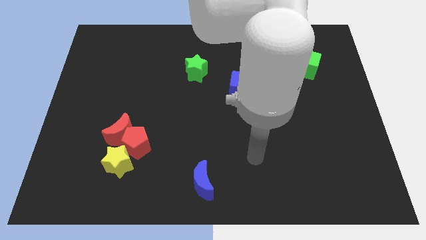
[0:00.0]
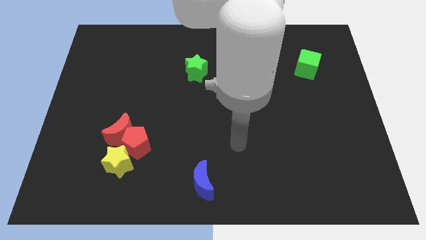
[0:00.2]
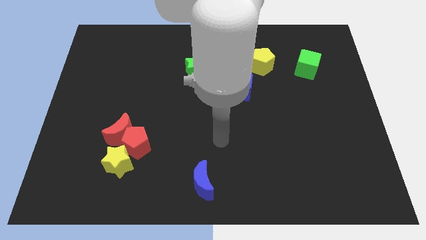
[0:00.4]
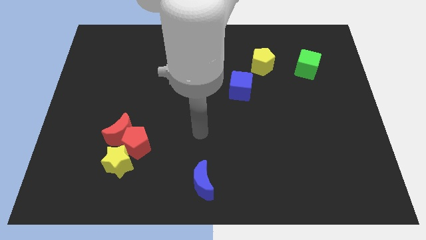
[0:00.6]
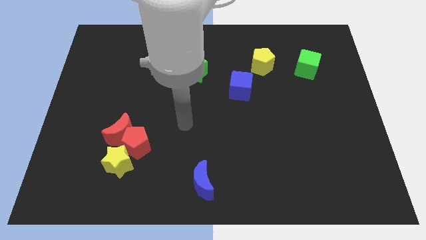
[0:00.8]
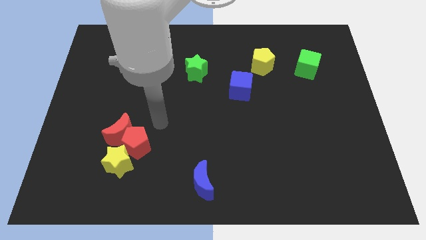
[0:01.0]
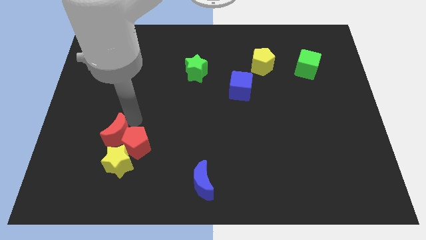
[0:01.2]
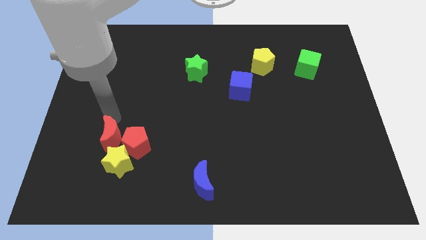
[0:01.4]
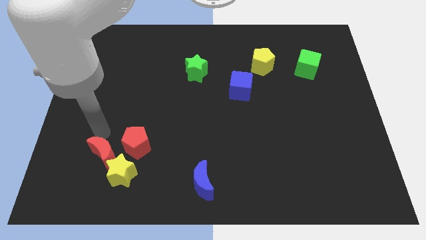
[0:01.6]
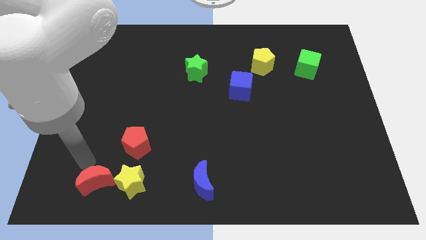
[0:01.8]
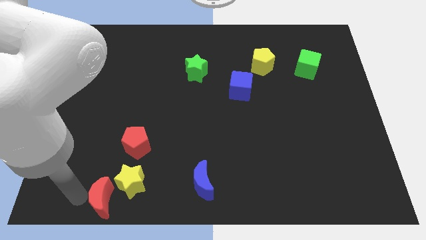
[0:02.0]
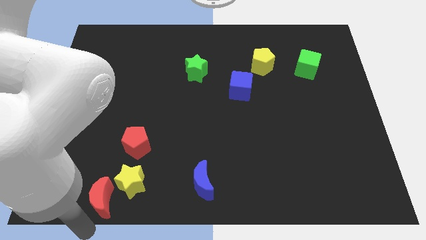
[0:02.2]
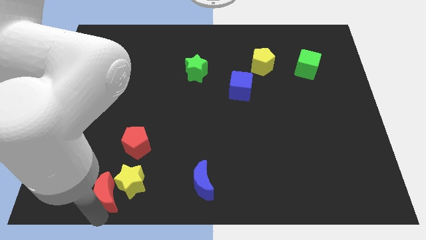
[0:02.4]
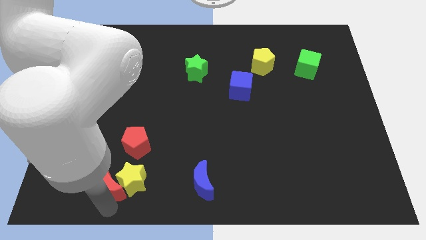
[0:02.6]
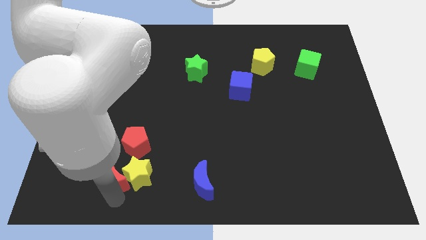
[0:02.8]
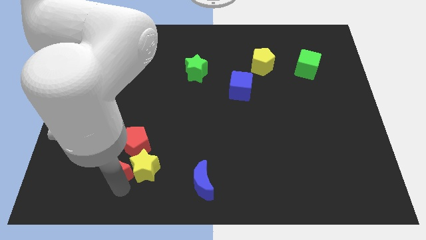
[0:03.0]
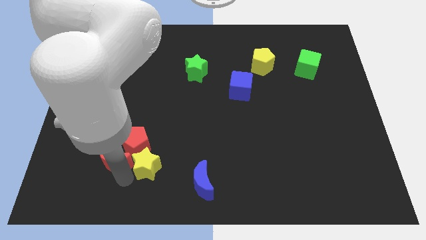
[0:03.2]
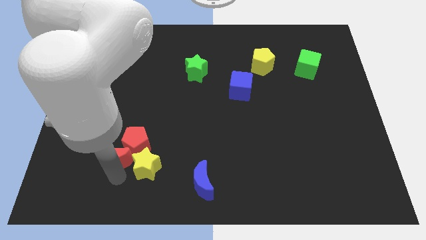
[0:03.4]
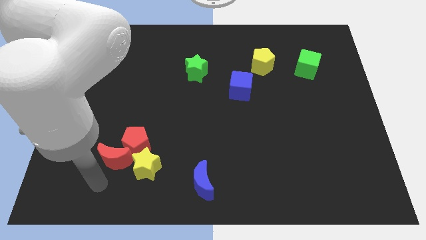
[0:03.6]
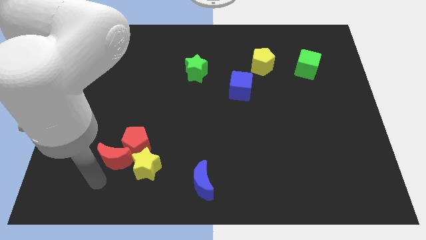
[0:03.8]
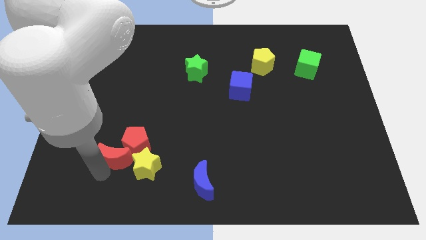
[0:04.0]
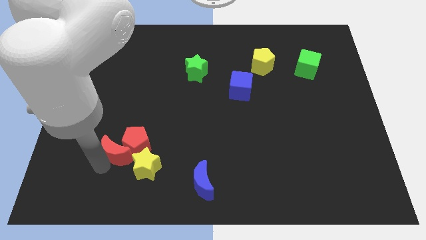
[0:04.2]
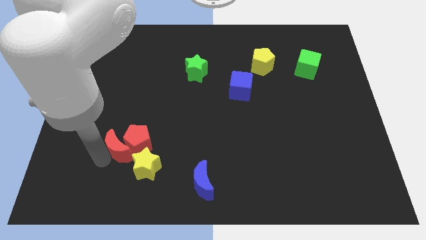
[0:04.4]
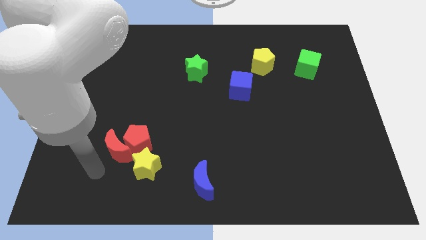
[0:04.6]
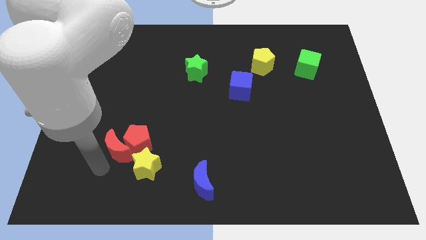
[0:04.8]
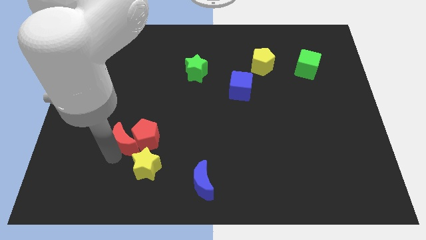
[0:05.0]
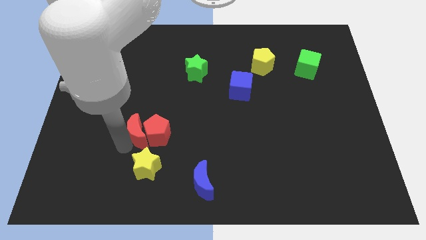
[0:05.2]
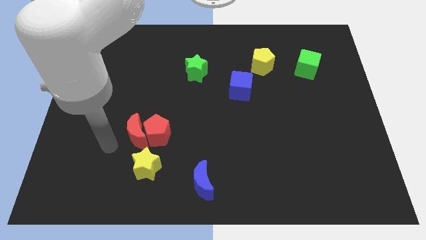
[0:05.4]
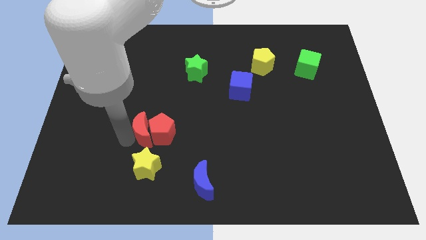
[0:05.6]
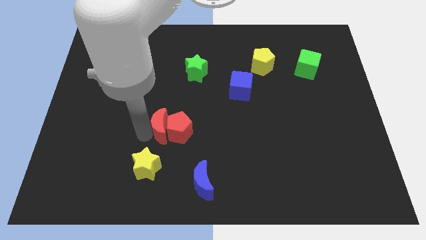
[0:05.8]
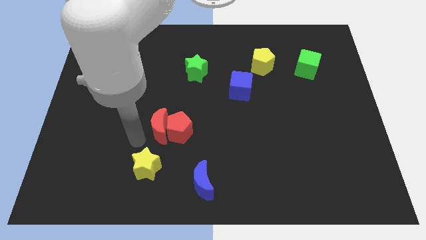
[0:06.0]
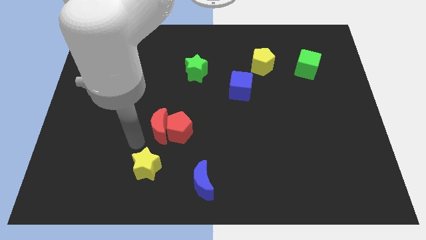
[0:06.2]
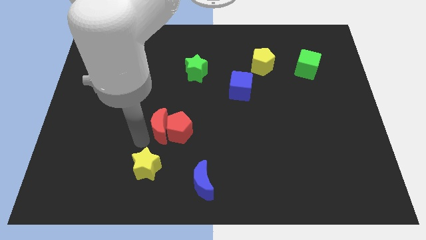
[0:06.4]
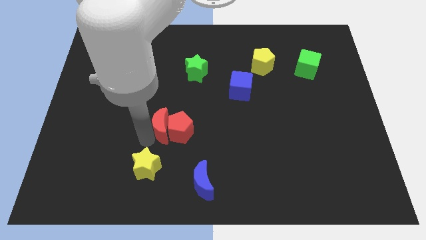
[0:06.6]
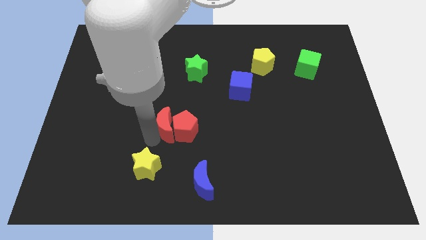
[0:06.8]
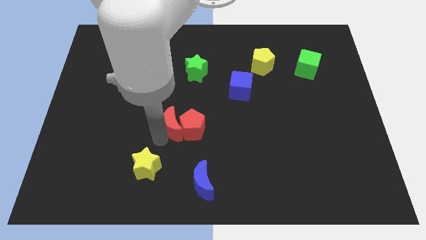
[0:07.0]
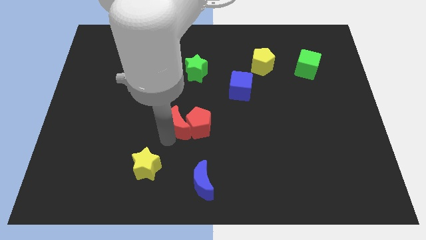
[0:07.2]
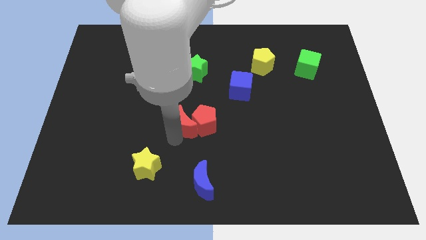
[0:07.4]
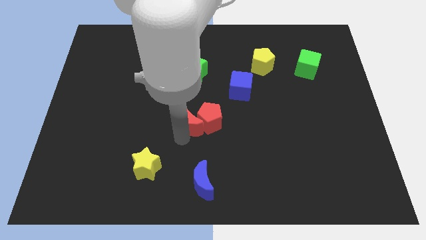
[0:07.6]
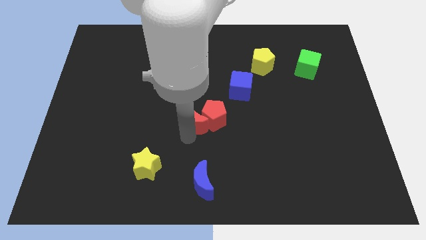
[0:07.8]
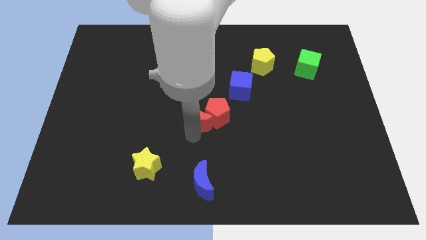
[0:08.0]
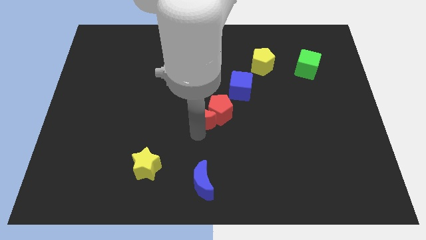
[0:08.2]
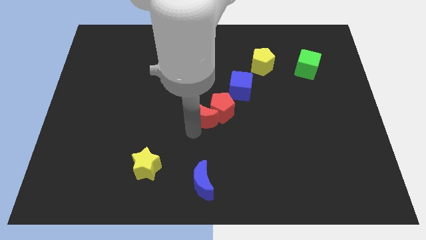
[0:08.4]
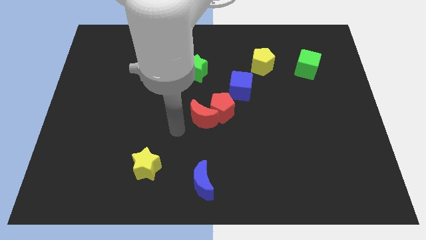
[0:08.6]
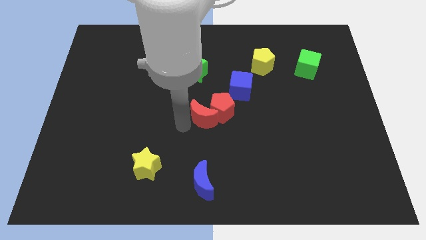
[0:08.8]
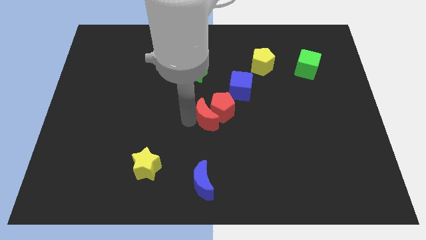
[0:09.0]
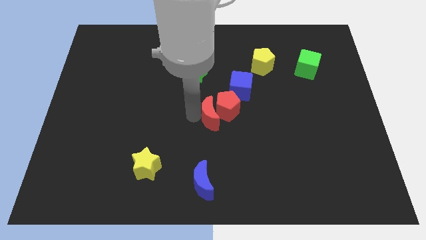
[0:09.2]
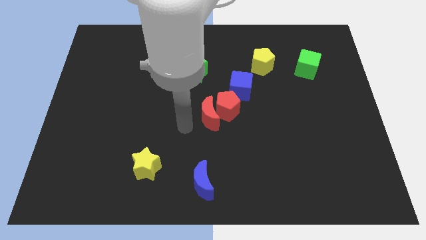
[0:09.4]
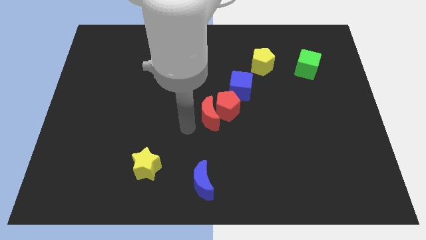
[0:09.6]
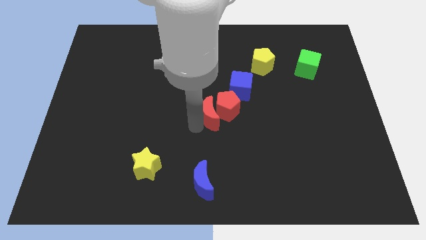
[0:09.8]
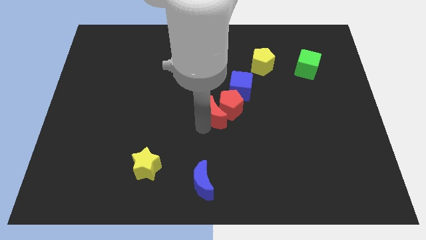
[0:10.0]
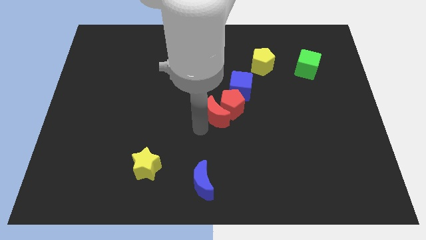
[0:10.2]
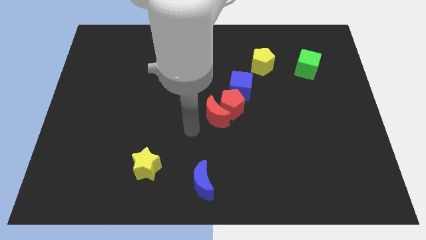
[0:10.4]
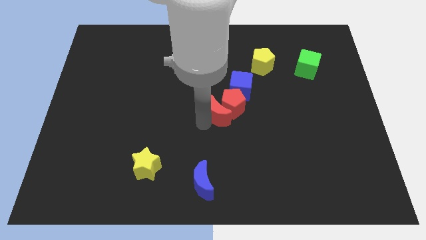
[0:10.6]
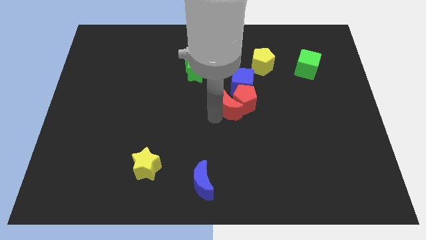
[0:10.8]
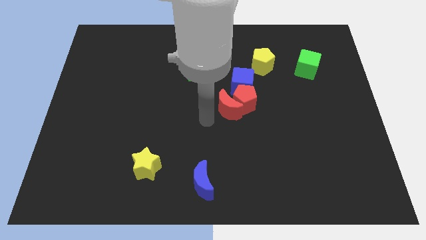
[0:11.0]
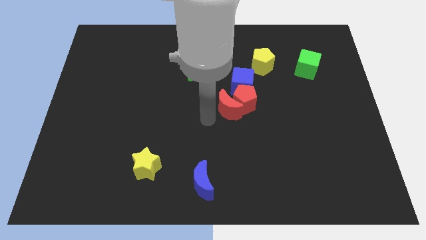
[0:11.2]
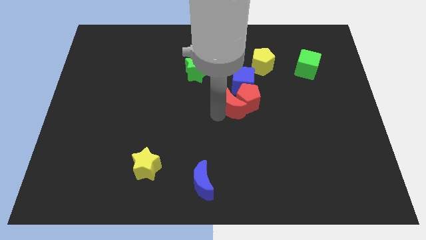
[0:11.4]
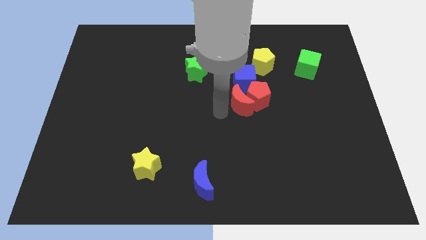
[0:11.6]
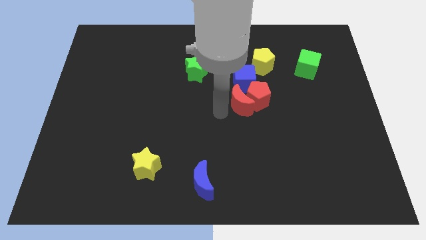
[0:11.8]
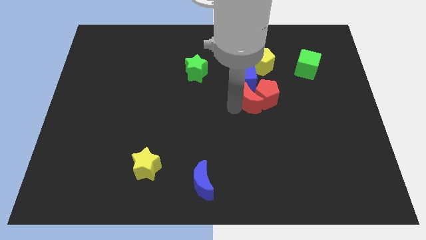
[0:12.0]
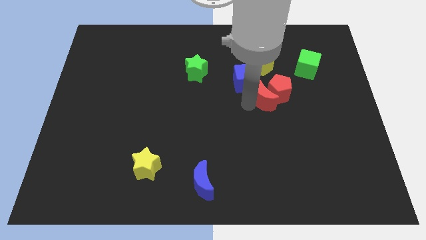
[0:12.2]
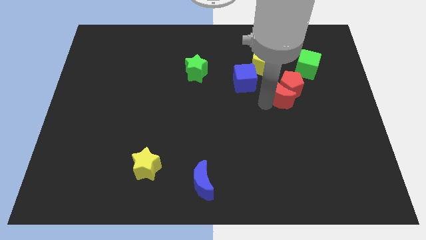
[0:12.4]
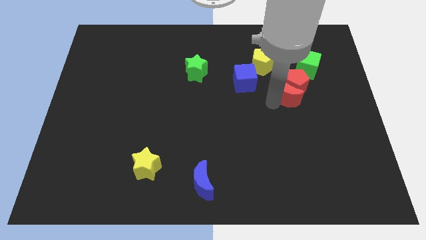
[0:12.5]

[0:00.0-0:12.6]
move the red moon diagonally down and to the left of the green cube

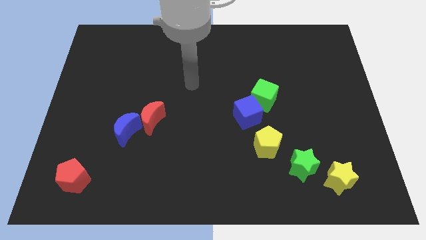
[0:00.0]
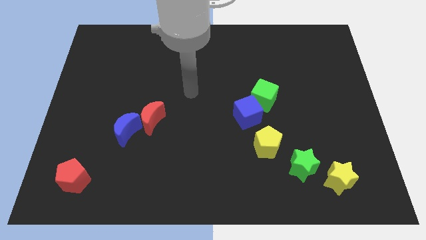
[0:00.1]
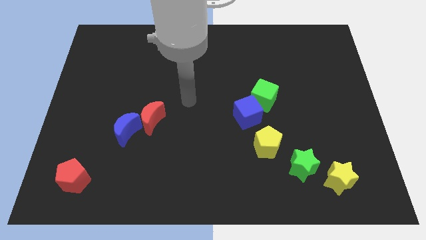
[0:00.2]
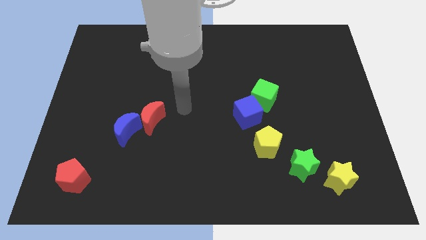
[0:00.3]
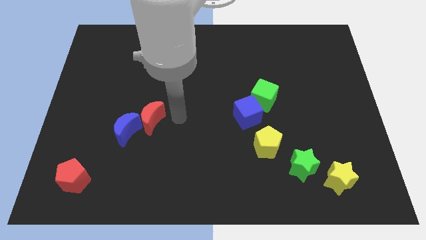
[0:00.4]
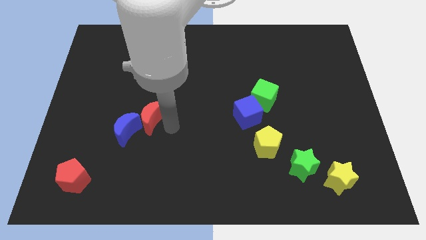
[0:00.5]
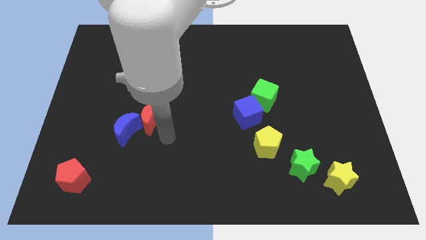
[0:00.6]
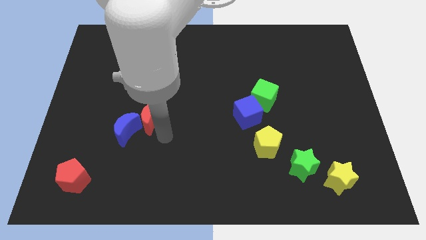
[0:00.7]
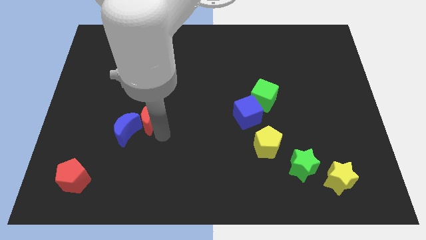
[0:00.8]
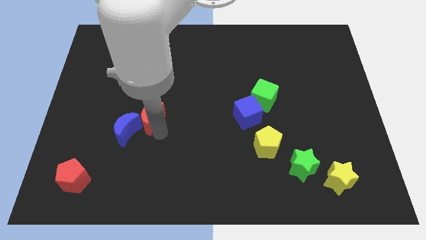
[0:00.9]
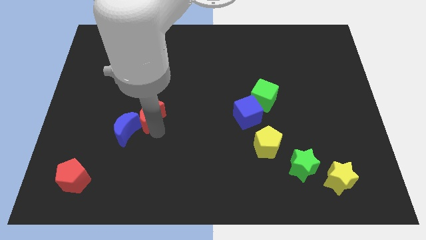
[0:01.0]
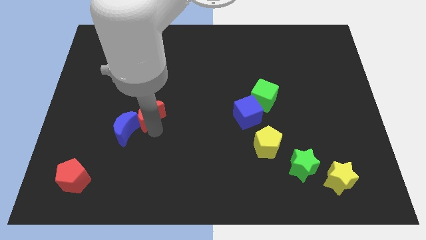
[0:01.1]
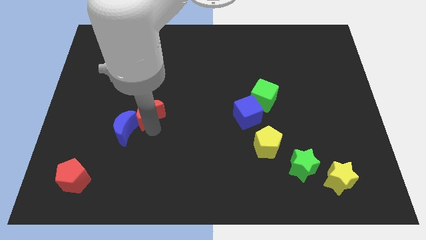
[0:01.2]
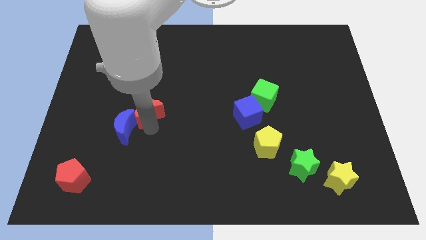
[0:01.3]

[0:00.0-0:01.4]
move the red moon above the blue moon
